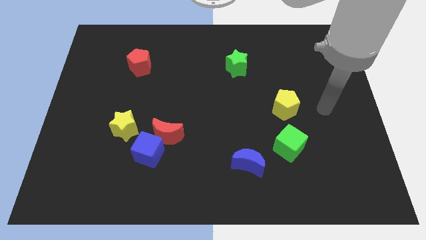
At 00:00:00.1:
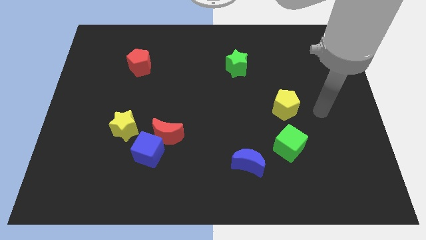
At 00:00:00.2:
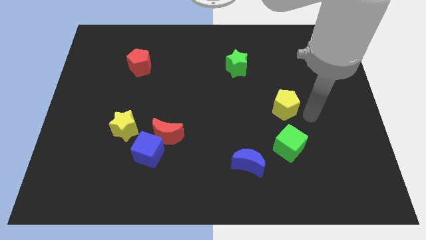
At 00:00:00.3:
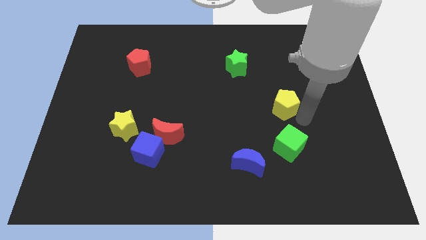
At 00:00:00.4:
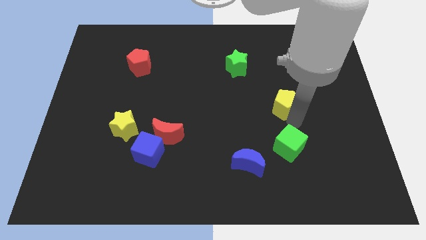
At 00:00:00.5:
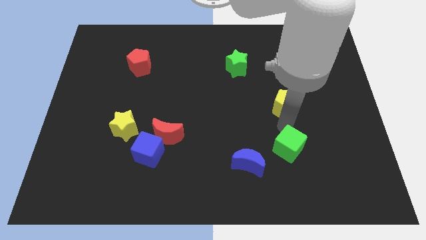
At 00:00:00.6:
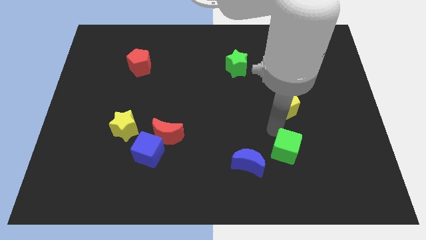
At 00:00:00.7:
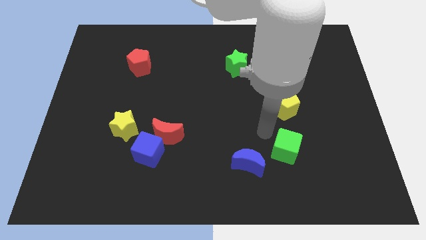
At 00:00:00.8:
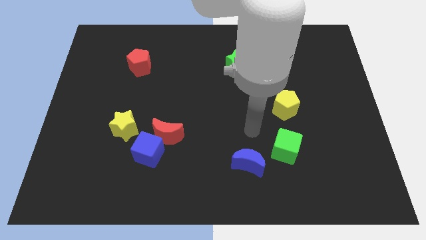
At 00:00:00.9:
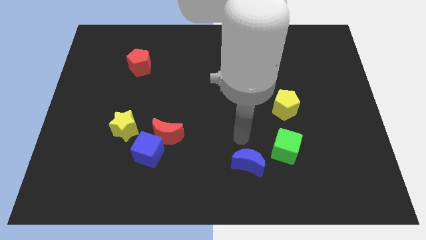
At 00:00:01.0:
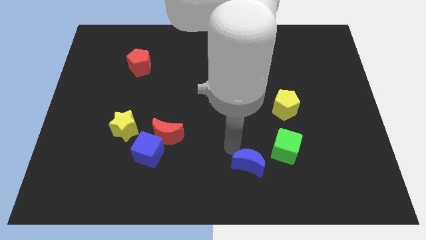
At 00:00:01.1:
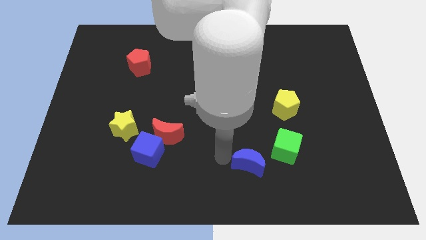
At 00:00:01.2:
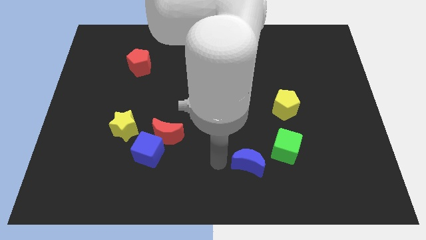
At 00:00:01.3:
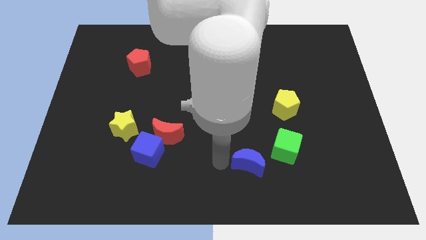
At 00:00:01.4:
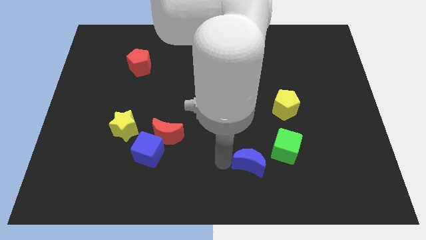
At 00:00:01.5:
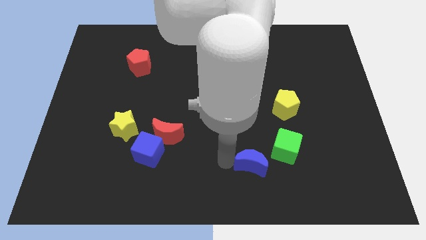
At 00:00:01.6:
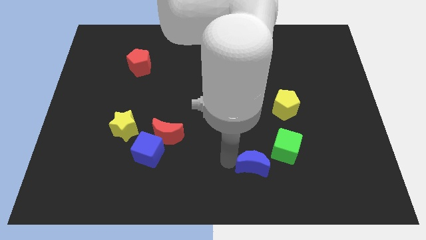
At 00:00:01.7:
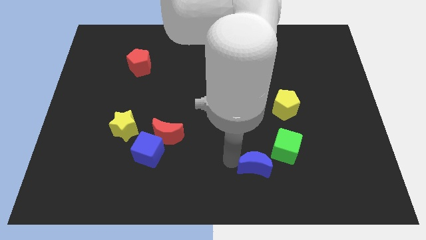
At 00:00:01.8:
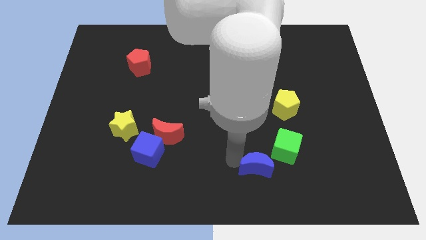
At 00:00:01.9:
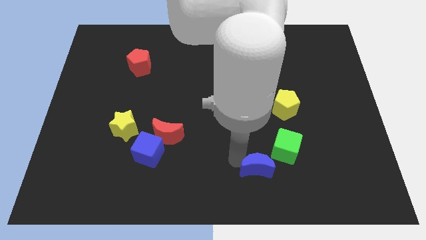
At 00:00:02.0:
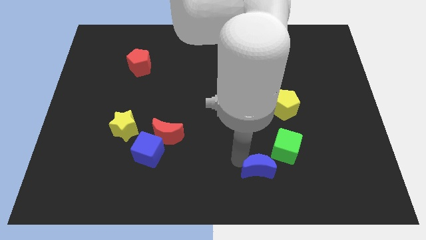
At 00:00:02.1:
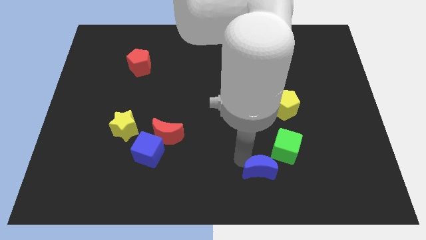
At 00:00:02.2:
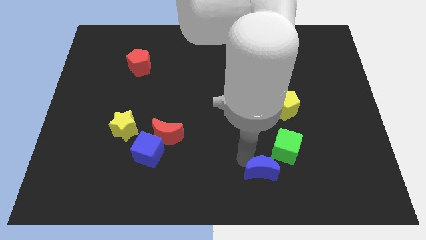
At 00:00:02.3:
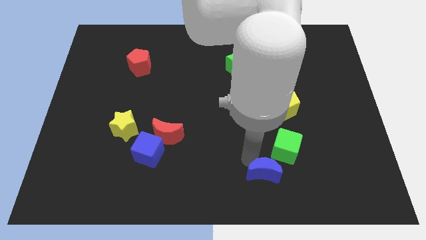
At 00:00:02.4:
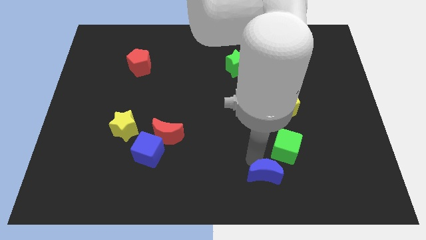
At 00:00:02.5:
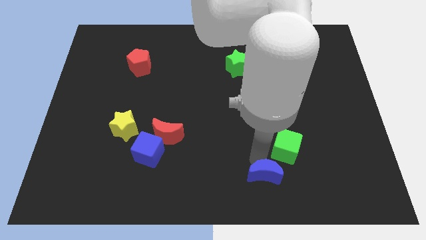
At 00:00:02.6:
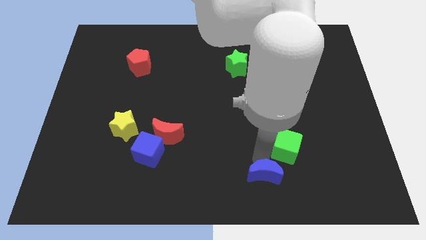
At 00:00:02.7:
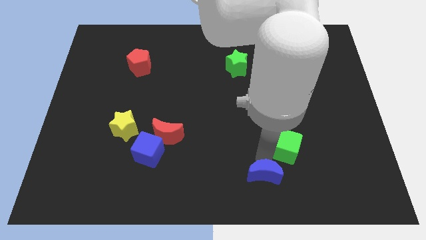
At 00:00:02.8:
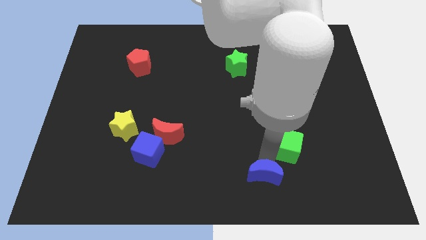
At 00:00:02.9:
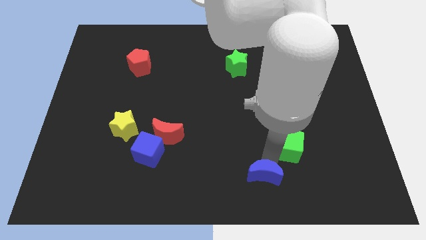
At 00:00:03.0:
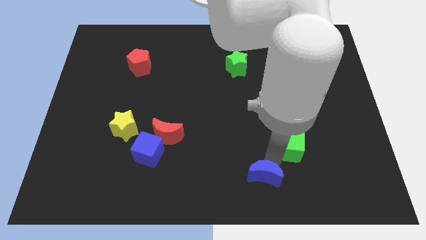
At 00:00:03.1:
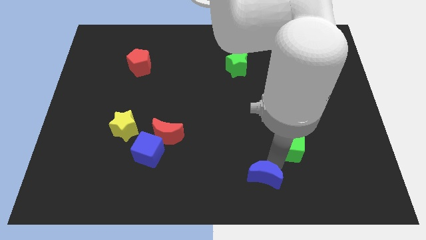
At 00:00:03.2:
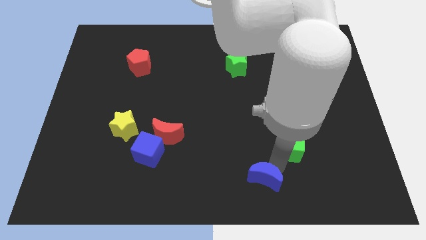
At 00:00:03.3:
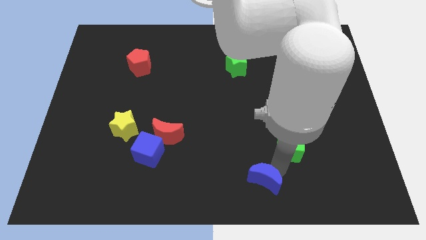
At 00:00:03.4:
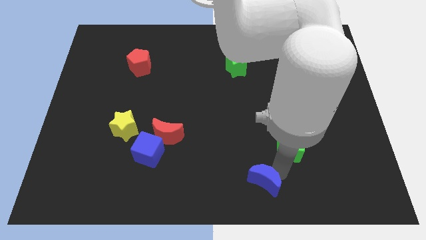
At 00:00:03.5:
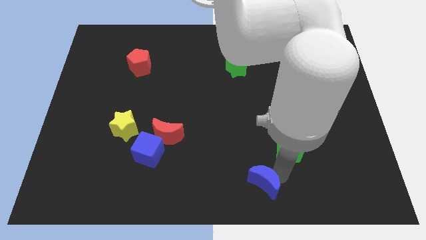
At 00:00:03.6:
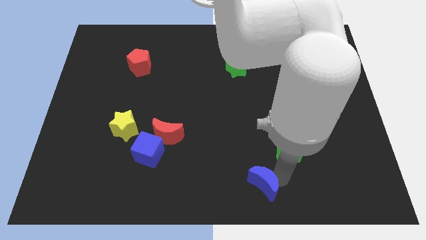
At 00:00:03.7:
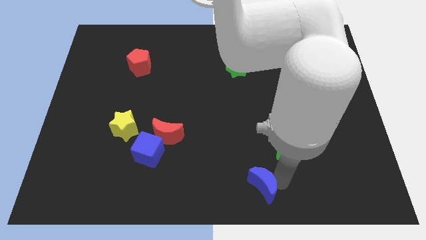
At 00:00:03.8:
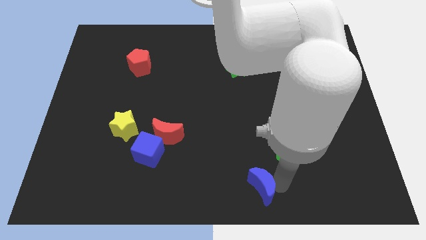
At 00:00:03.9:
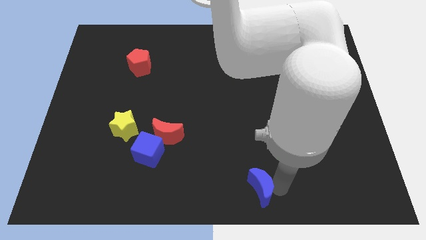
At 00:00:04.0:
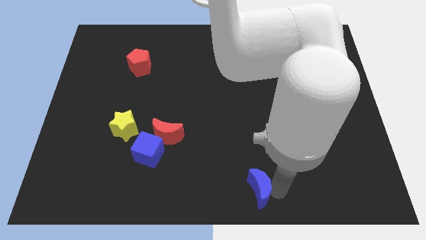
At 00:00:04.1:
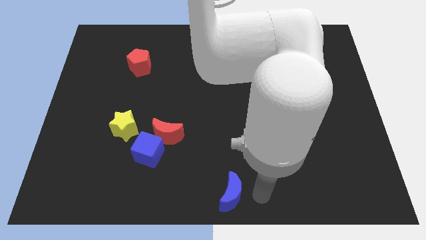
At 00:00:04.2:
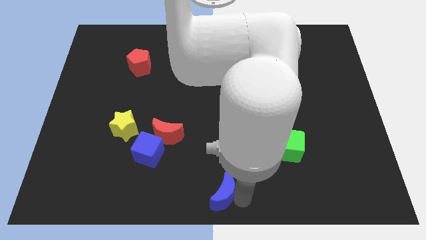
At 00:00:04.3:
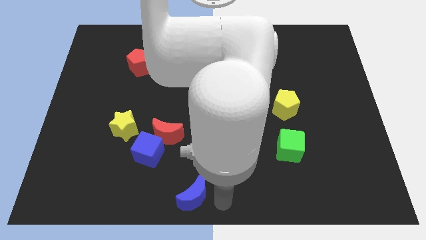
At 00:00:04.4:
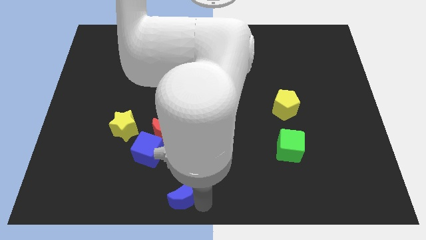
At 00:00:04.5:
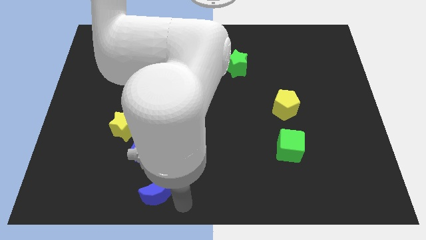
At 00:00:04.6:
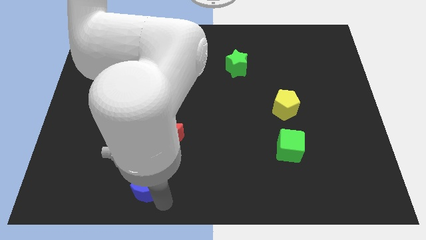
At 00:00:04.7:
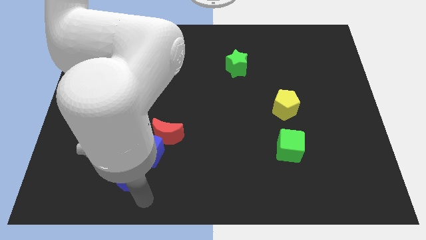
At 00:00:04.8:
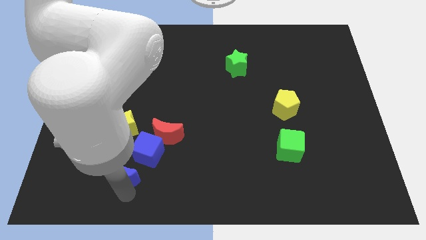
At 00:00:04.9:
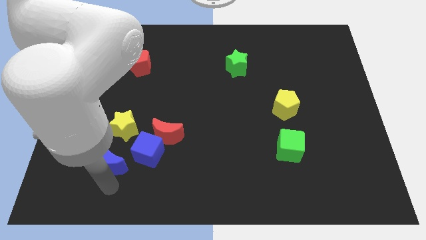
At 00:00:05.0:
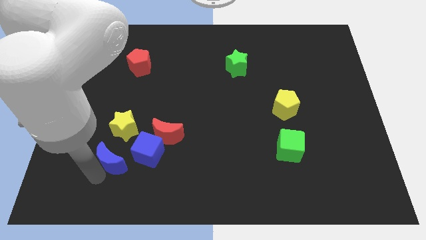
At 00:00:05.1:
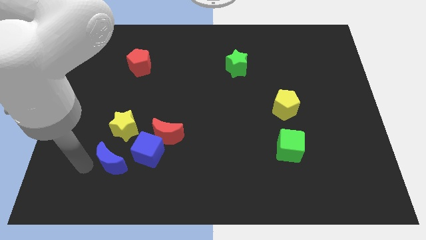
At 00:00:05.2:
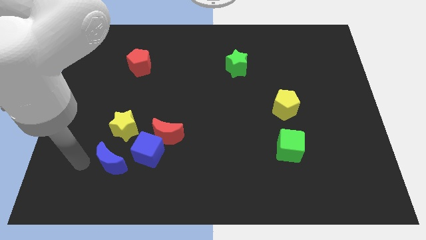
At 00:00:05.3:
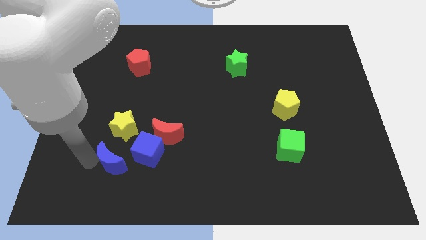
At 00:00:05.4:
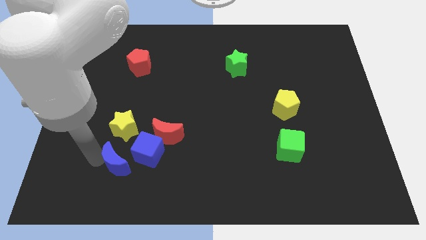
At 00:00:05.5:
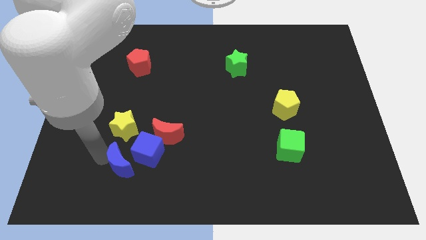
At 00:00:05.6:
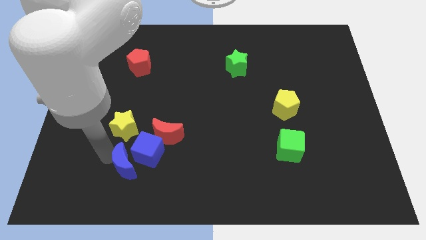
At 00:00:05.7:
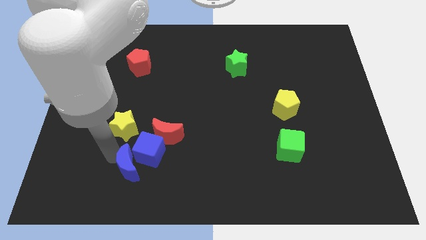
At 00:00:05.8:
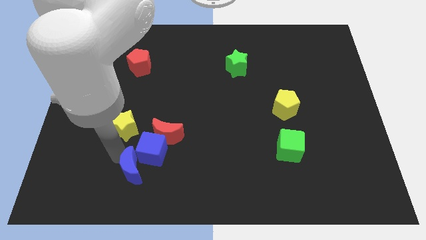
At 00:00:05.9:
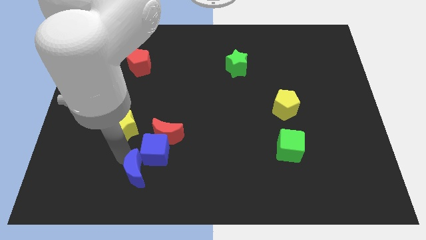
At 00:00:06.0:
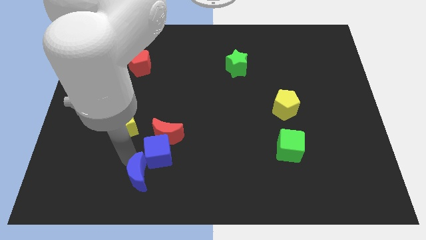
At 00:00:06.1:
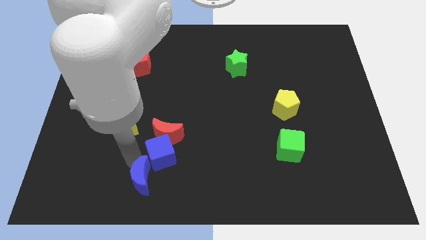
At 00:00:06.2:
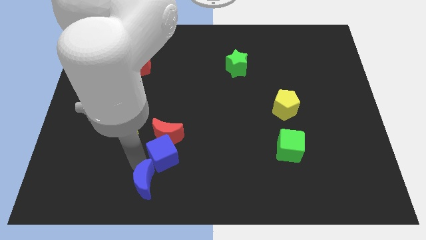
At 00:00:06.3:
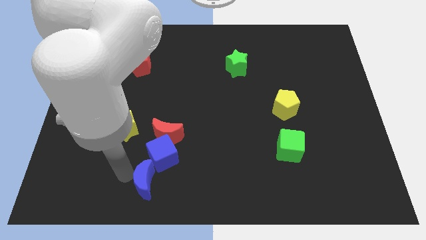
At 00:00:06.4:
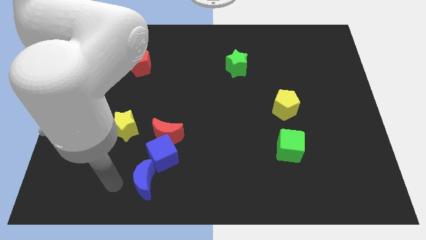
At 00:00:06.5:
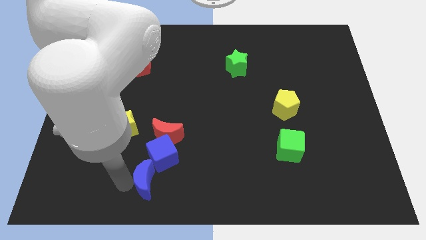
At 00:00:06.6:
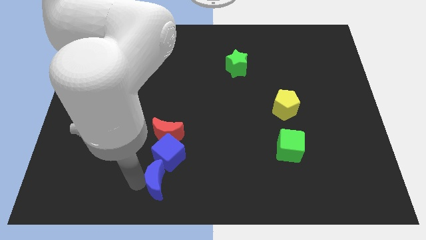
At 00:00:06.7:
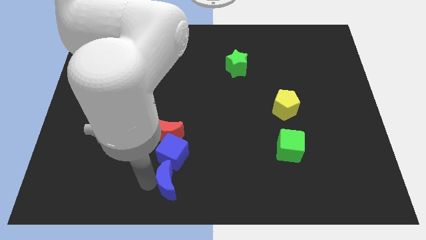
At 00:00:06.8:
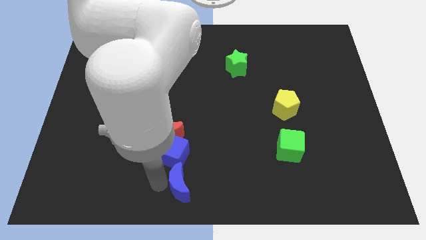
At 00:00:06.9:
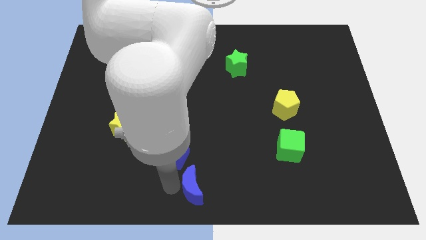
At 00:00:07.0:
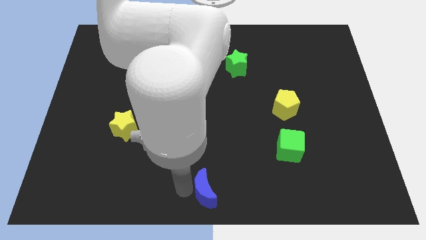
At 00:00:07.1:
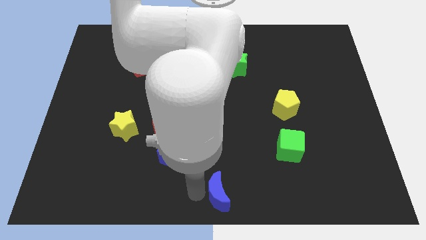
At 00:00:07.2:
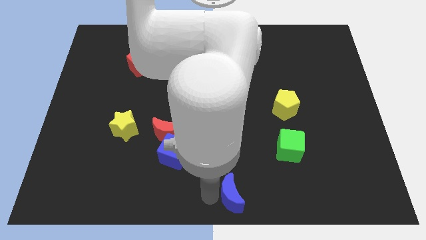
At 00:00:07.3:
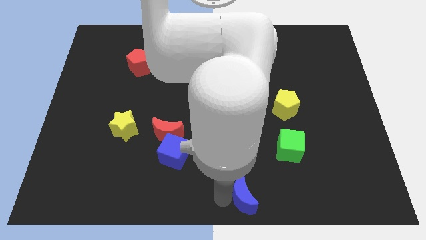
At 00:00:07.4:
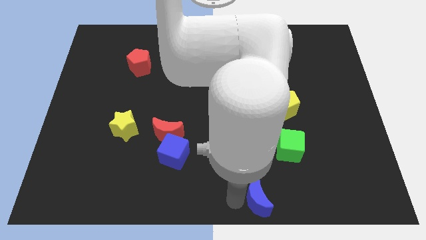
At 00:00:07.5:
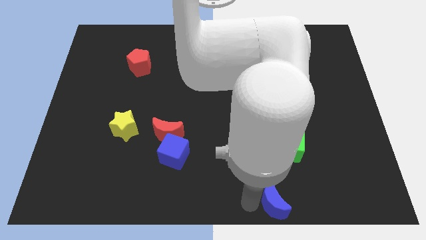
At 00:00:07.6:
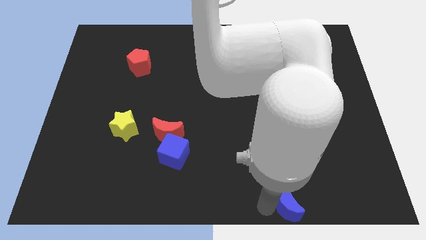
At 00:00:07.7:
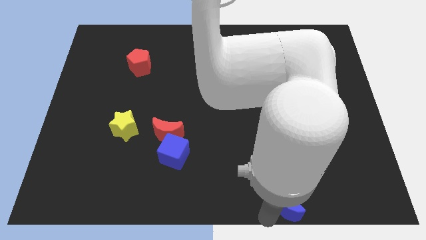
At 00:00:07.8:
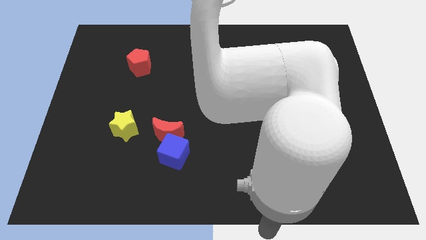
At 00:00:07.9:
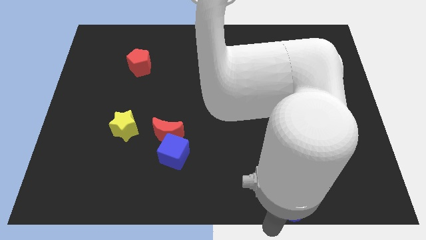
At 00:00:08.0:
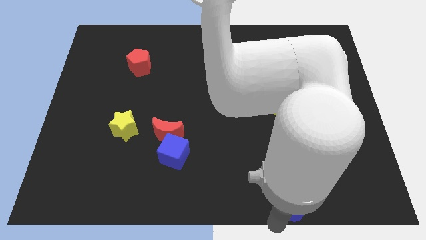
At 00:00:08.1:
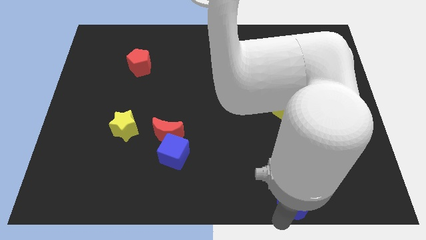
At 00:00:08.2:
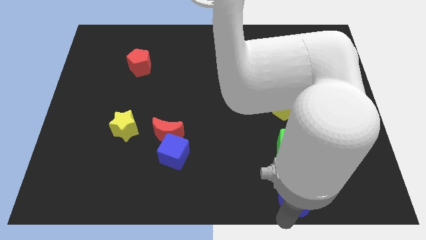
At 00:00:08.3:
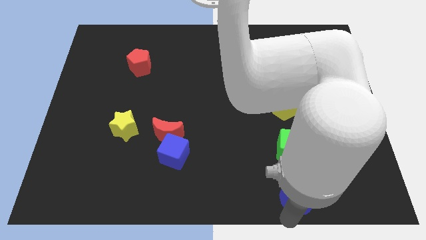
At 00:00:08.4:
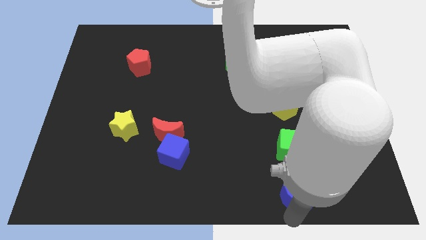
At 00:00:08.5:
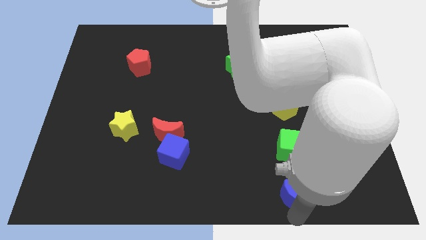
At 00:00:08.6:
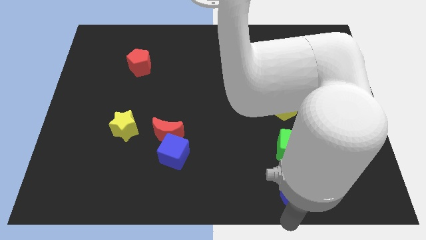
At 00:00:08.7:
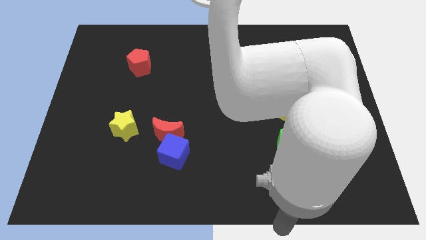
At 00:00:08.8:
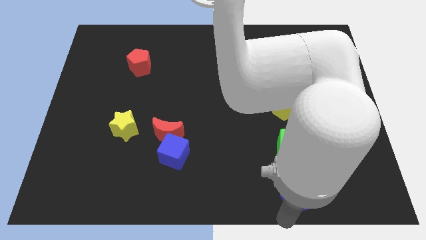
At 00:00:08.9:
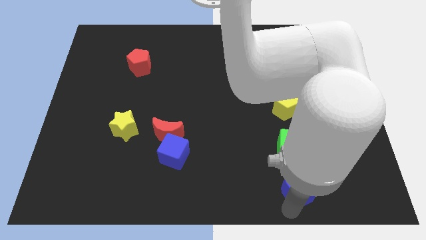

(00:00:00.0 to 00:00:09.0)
move the blue moon to the right a little bit
